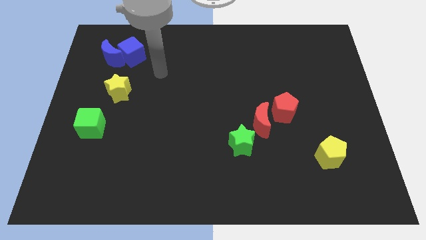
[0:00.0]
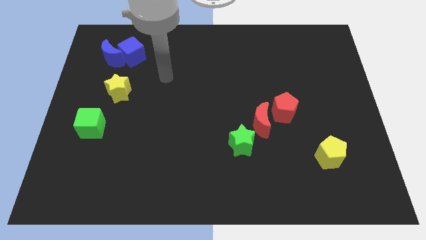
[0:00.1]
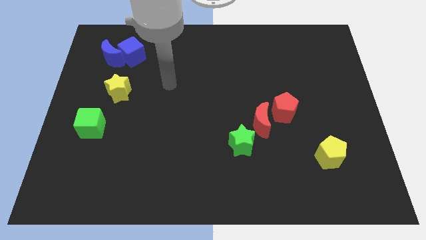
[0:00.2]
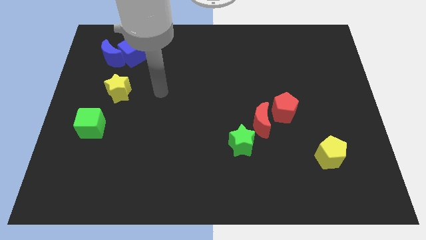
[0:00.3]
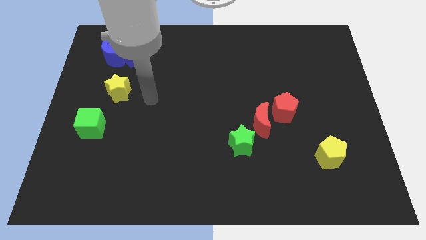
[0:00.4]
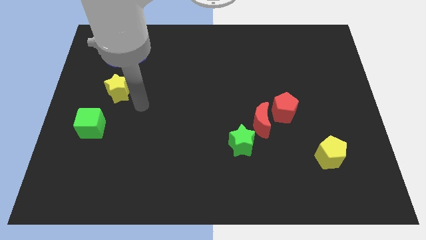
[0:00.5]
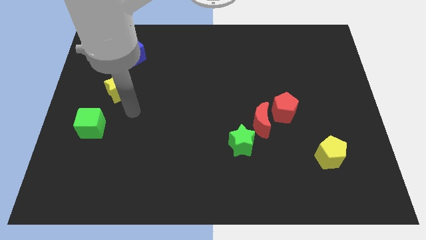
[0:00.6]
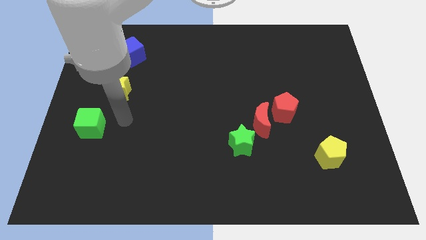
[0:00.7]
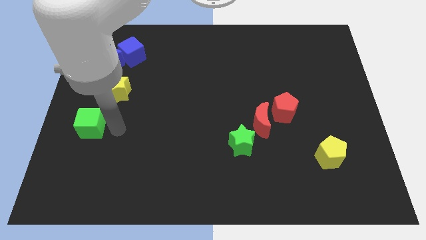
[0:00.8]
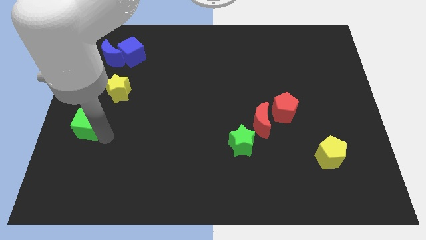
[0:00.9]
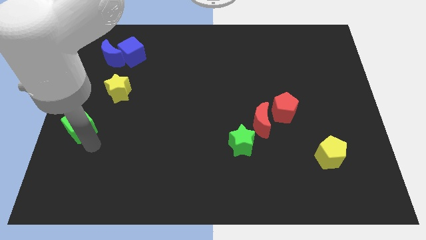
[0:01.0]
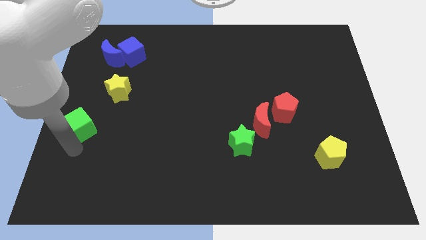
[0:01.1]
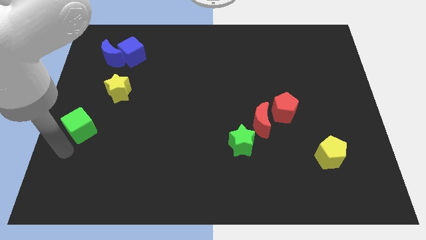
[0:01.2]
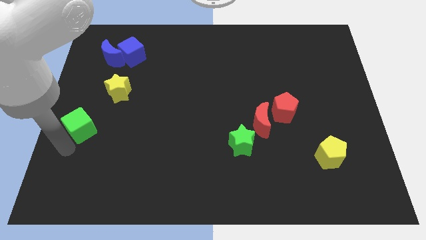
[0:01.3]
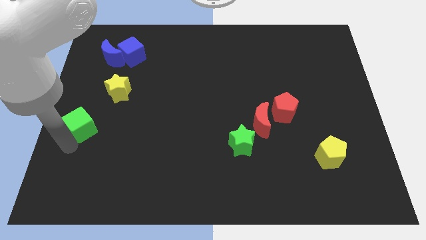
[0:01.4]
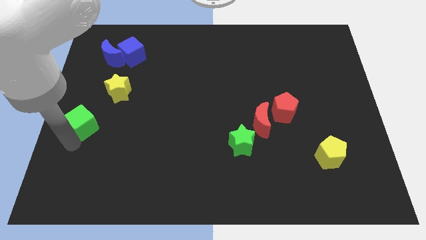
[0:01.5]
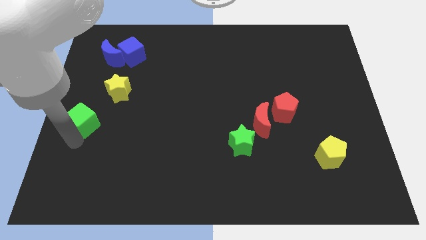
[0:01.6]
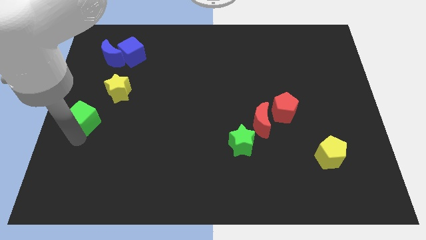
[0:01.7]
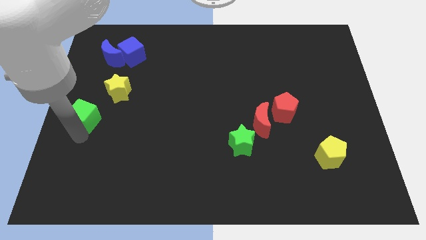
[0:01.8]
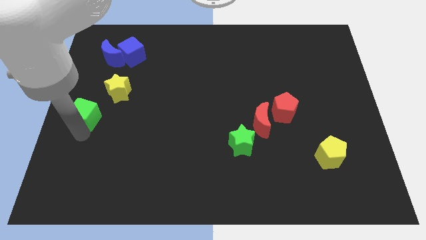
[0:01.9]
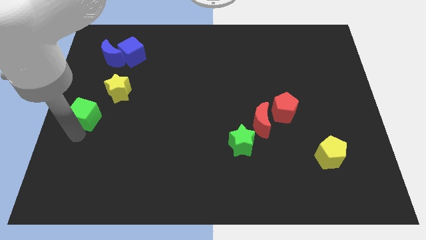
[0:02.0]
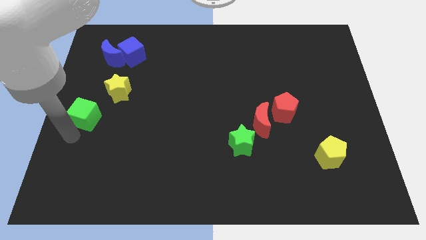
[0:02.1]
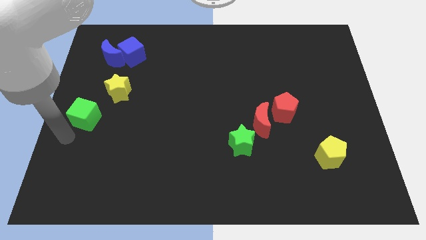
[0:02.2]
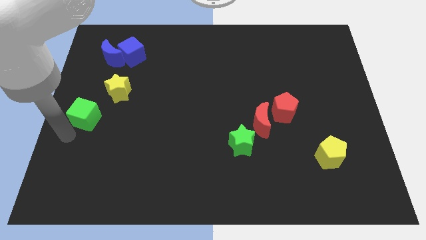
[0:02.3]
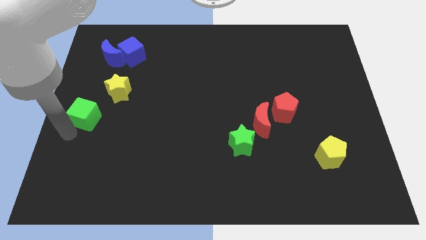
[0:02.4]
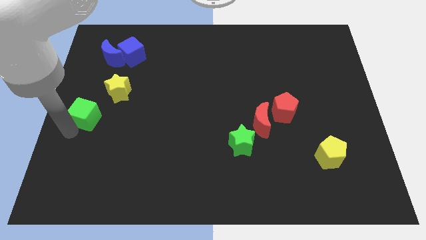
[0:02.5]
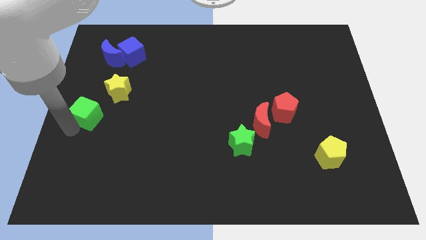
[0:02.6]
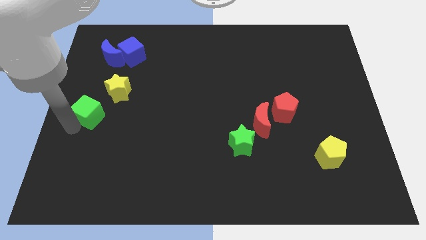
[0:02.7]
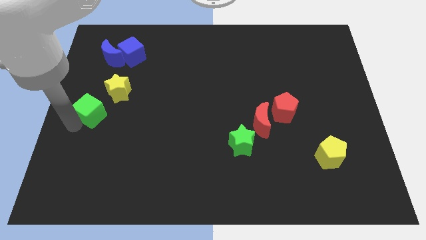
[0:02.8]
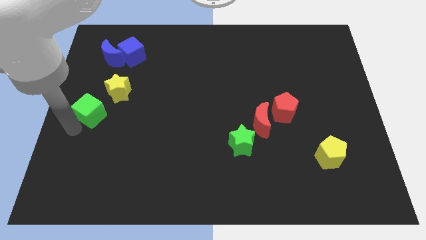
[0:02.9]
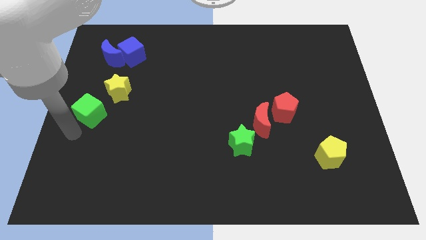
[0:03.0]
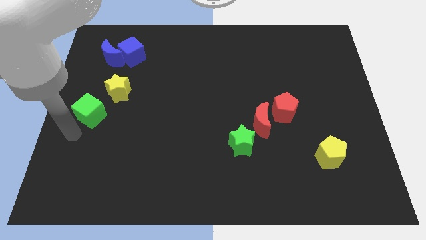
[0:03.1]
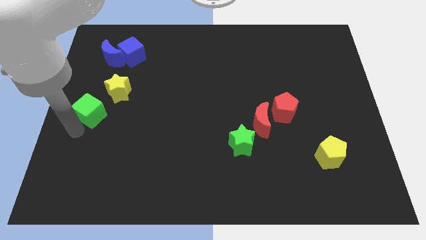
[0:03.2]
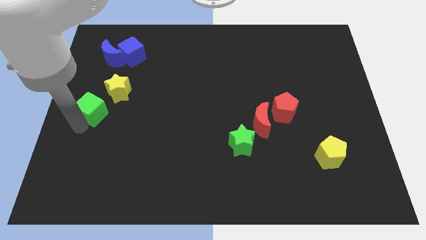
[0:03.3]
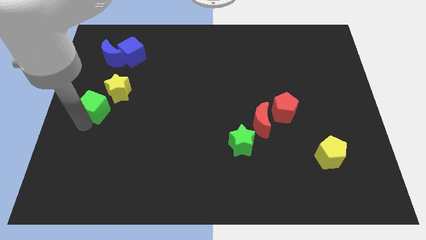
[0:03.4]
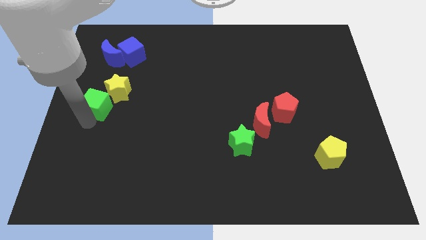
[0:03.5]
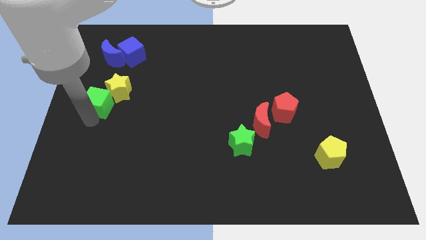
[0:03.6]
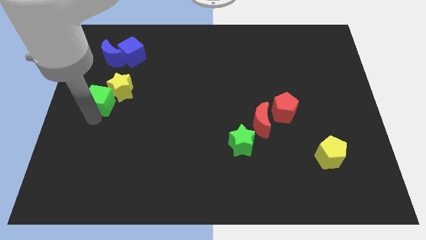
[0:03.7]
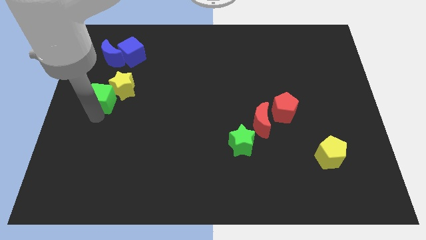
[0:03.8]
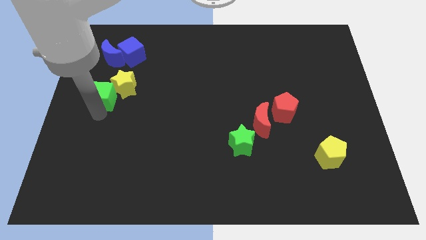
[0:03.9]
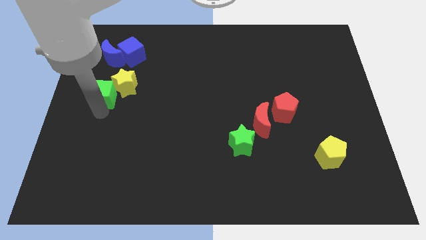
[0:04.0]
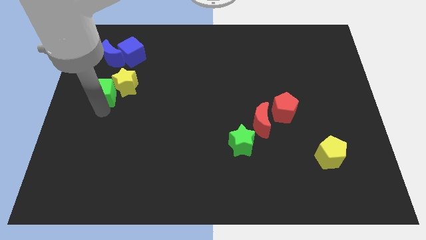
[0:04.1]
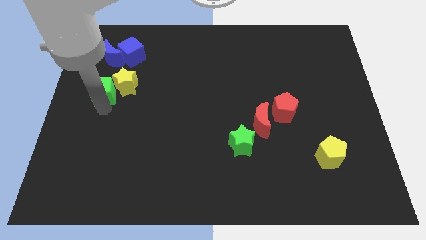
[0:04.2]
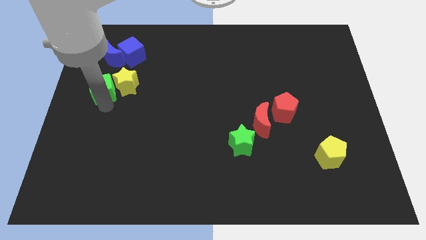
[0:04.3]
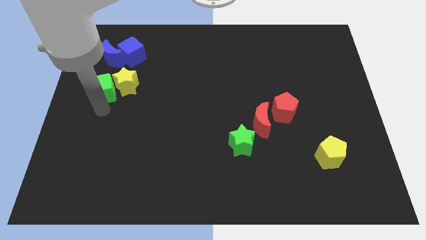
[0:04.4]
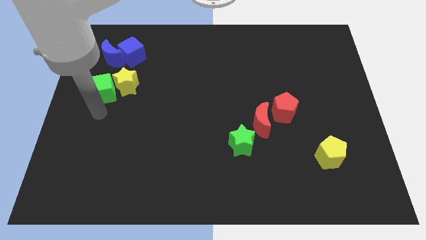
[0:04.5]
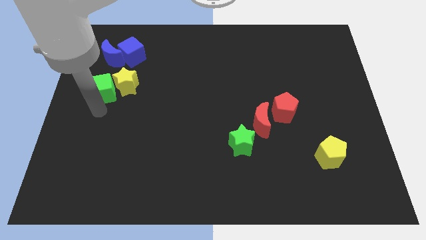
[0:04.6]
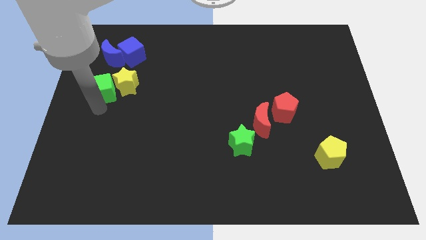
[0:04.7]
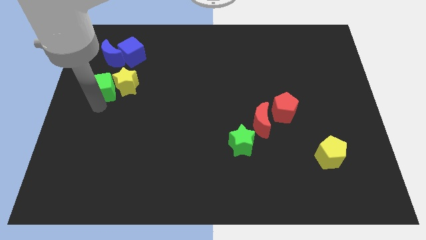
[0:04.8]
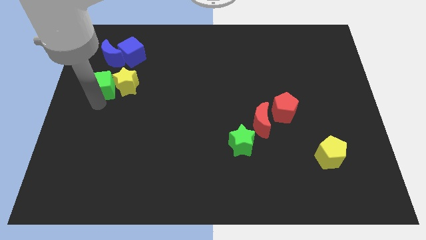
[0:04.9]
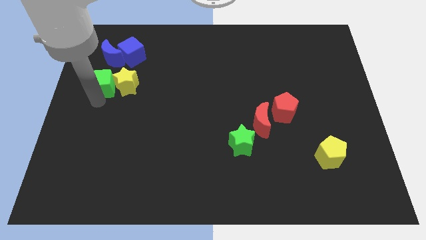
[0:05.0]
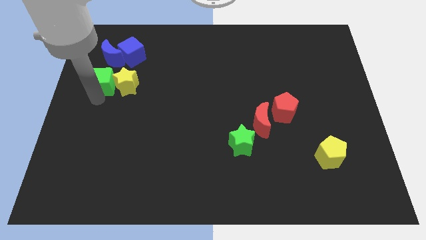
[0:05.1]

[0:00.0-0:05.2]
put the green cube to the bottom left side of the blue cube
